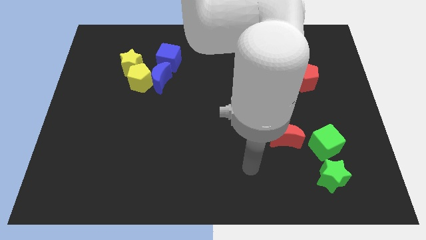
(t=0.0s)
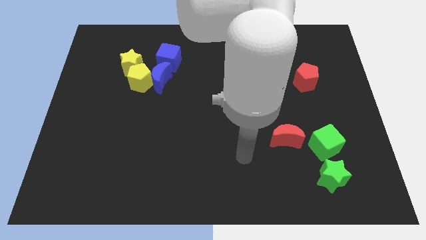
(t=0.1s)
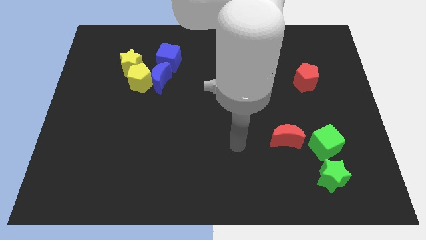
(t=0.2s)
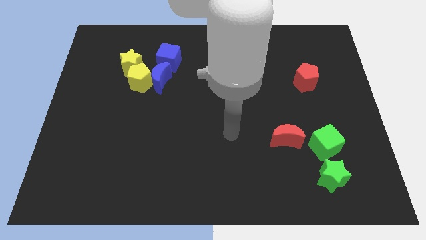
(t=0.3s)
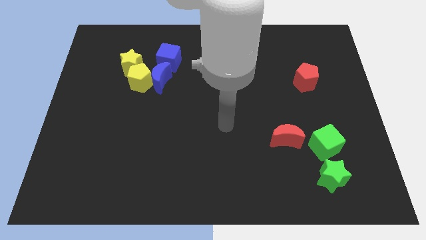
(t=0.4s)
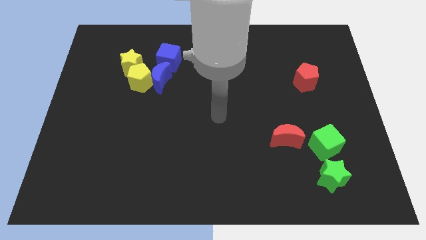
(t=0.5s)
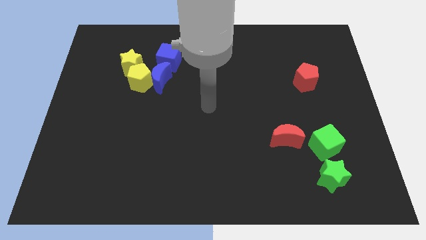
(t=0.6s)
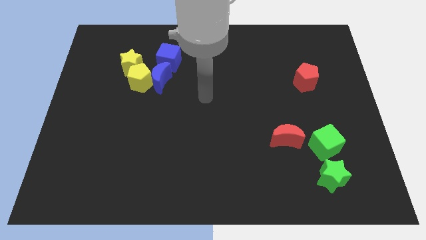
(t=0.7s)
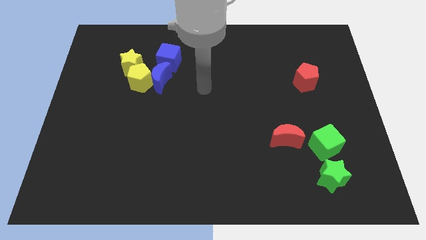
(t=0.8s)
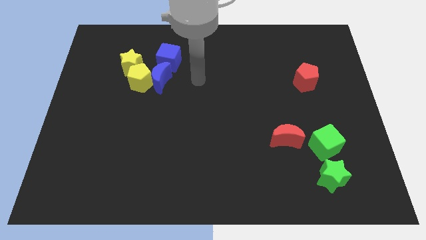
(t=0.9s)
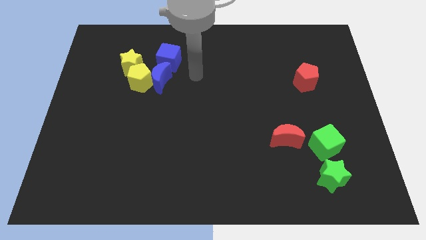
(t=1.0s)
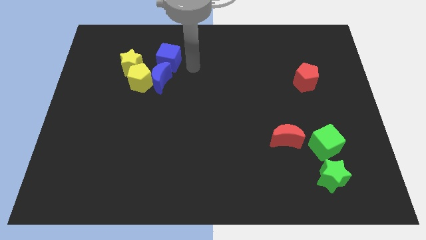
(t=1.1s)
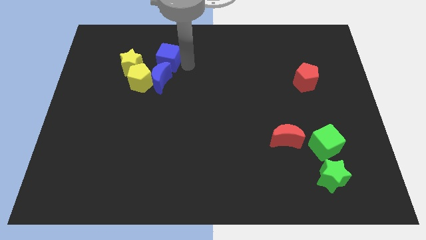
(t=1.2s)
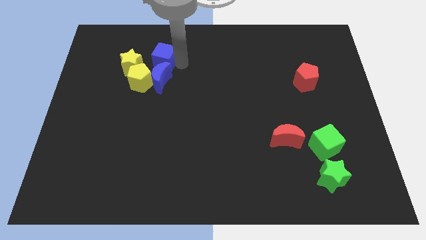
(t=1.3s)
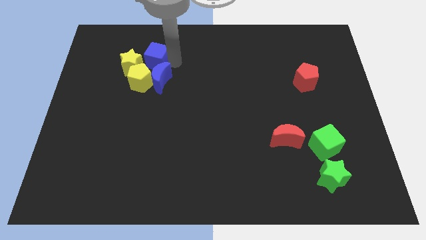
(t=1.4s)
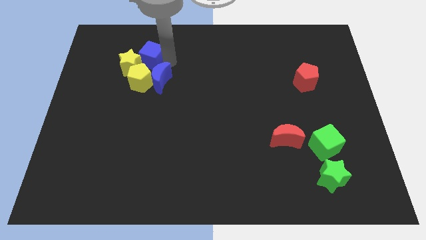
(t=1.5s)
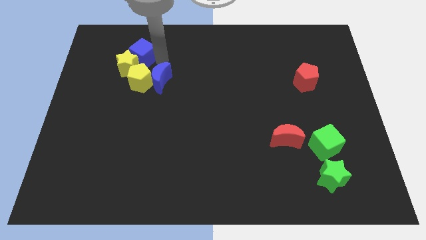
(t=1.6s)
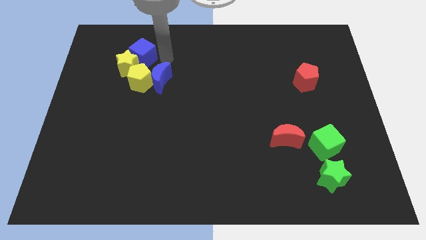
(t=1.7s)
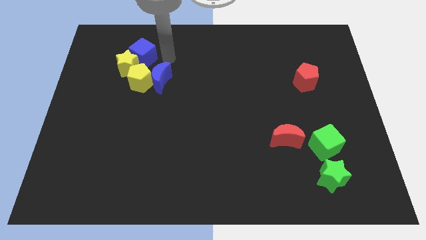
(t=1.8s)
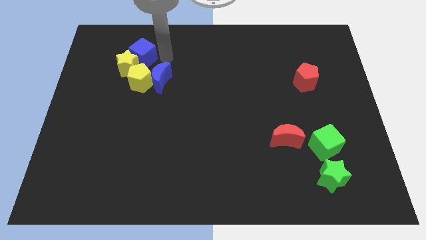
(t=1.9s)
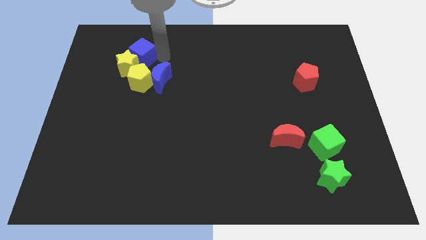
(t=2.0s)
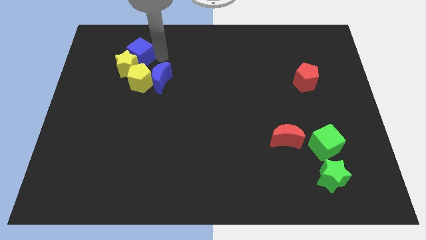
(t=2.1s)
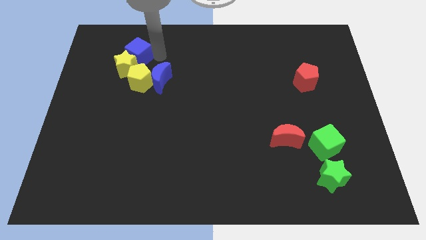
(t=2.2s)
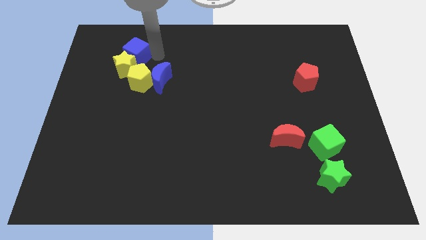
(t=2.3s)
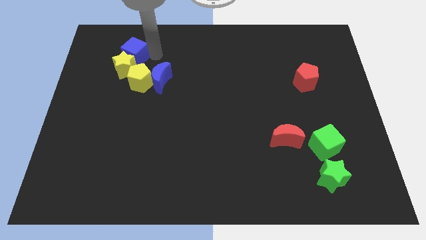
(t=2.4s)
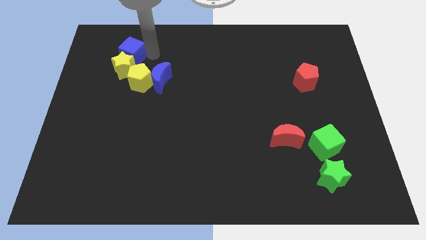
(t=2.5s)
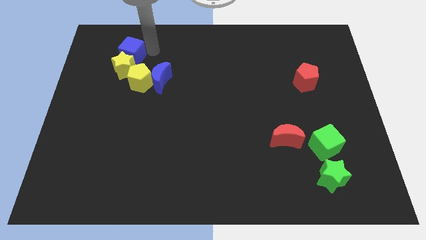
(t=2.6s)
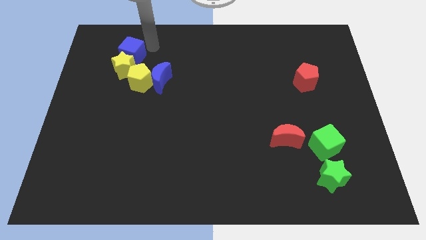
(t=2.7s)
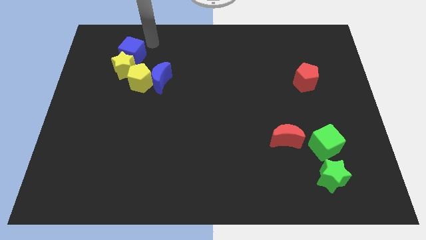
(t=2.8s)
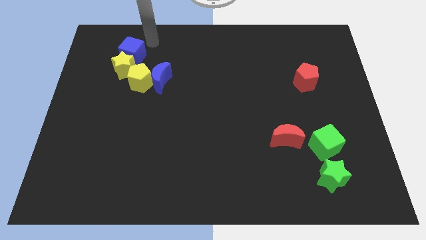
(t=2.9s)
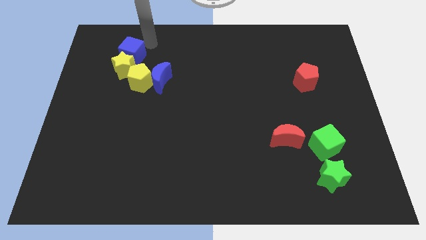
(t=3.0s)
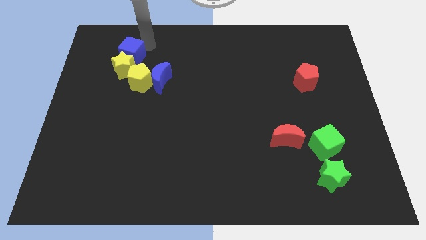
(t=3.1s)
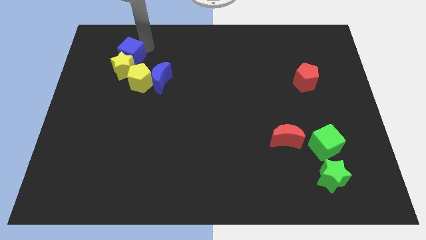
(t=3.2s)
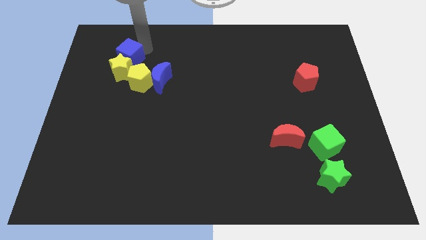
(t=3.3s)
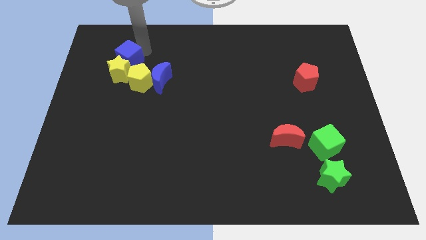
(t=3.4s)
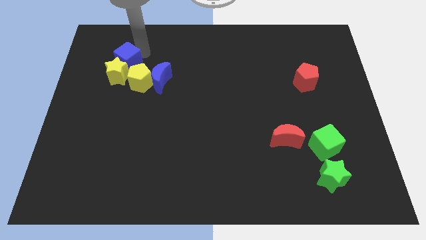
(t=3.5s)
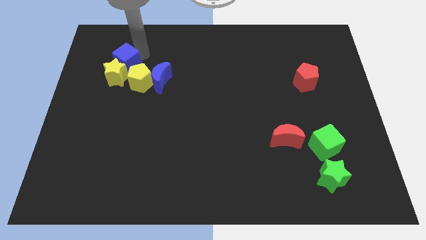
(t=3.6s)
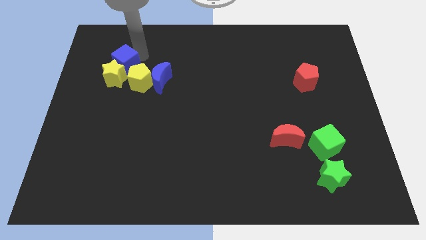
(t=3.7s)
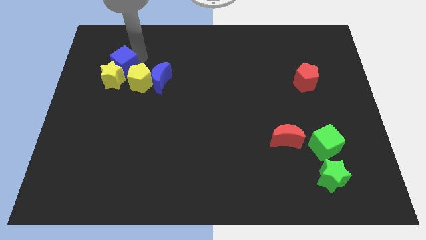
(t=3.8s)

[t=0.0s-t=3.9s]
slide the blue cube a little bit down and to the left diagonally

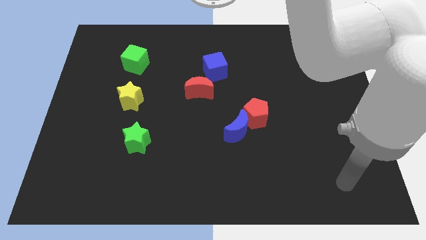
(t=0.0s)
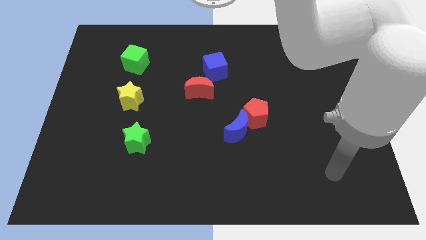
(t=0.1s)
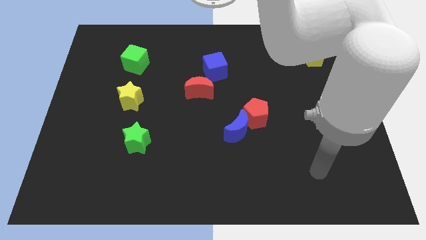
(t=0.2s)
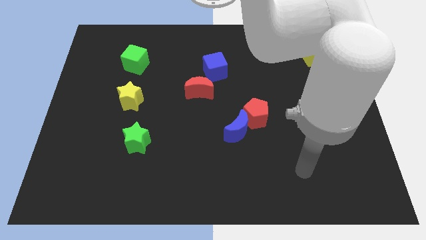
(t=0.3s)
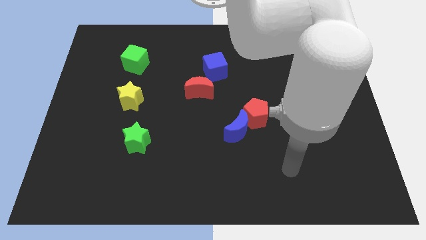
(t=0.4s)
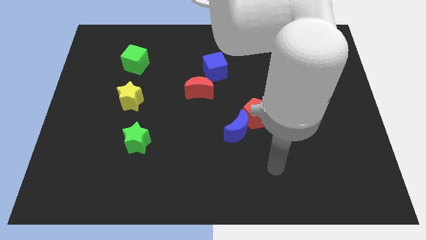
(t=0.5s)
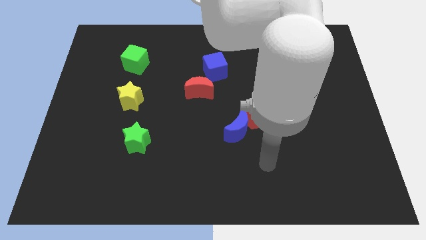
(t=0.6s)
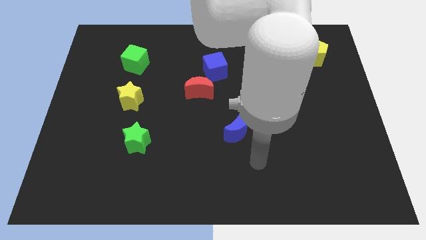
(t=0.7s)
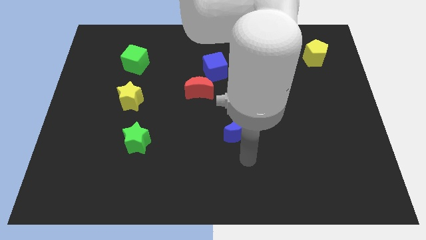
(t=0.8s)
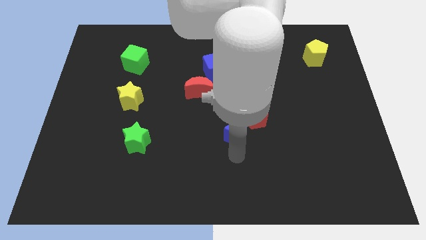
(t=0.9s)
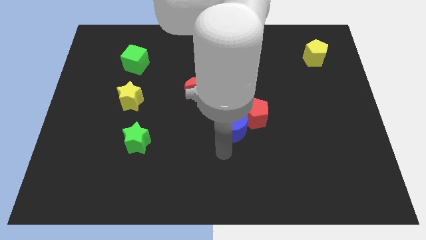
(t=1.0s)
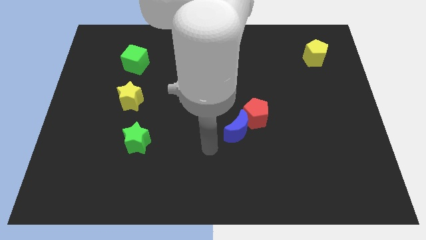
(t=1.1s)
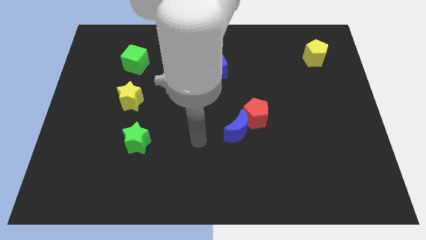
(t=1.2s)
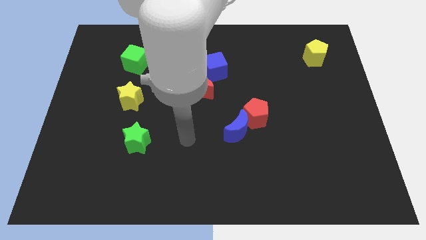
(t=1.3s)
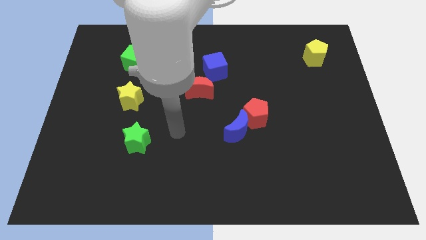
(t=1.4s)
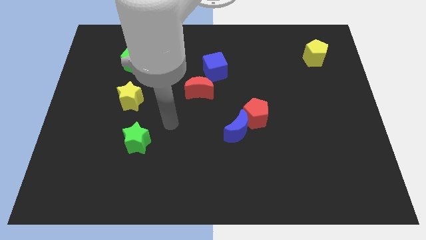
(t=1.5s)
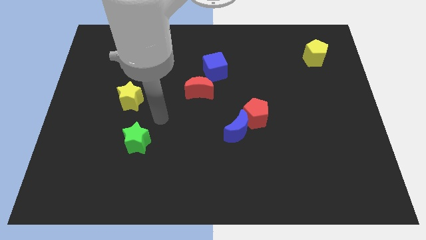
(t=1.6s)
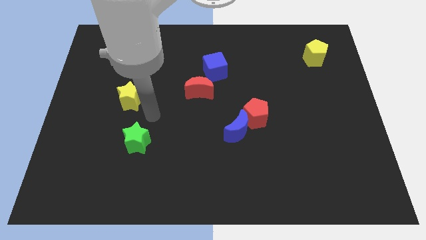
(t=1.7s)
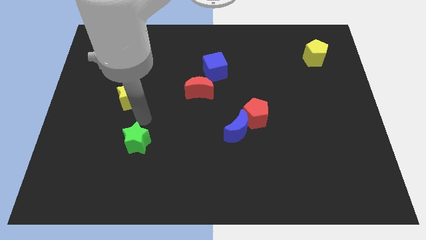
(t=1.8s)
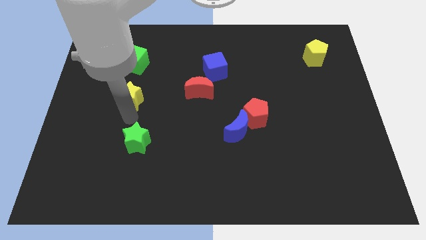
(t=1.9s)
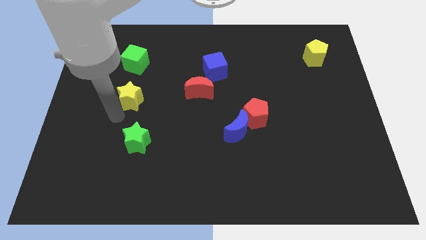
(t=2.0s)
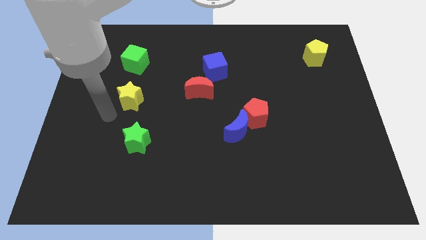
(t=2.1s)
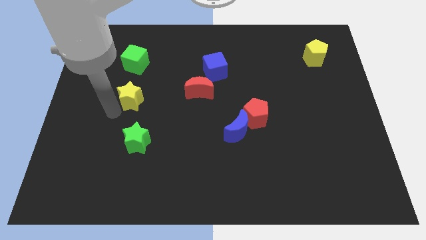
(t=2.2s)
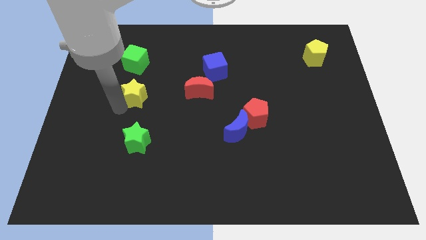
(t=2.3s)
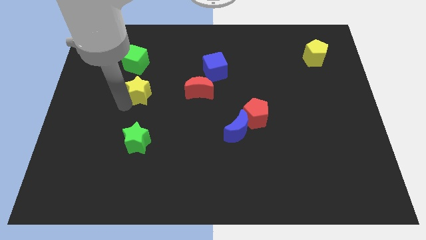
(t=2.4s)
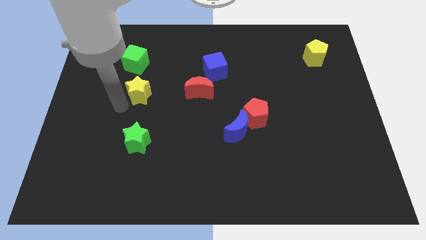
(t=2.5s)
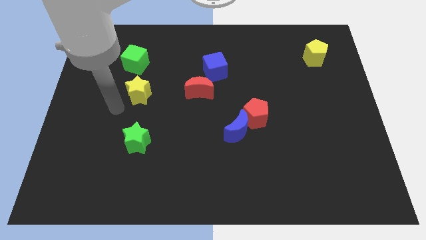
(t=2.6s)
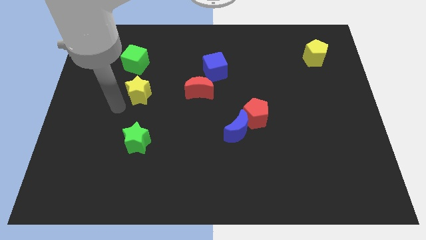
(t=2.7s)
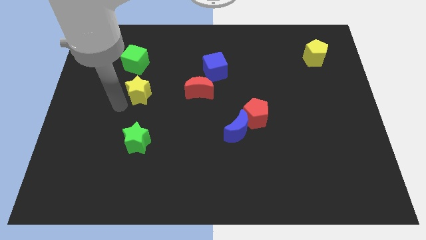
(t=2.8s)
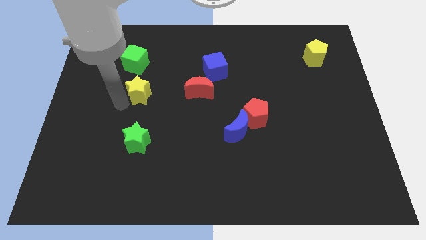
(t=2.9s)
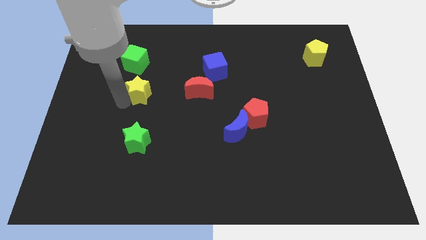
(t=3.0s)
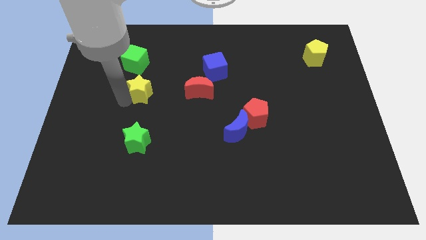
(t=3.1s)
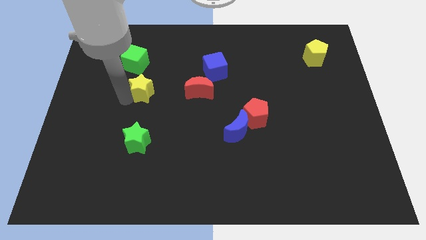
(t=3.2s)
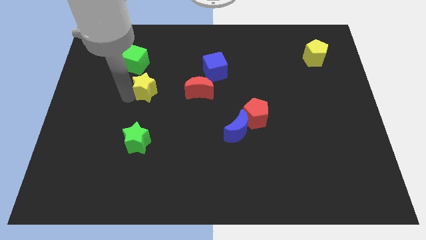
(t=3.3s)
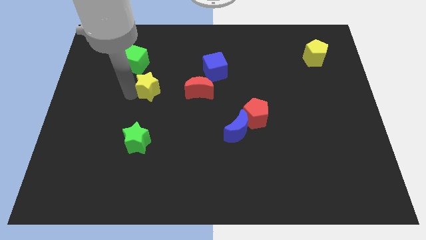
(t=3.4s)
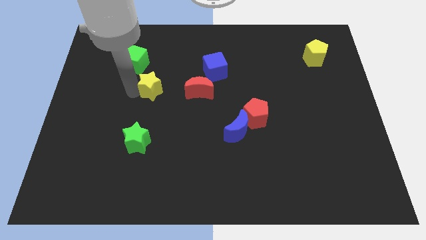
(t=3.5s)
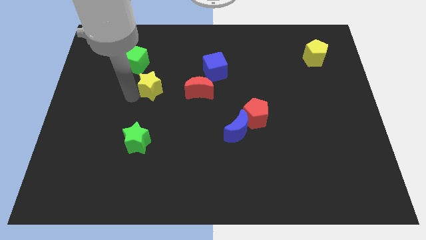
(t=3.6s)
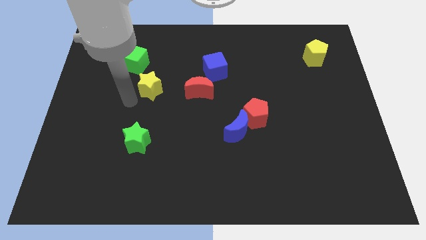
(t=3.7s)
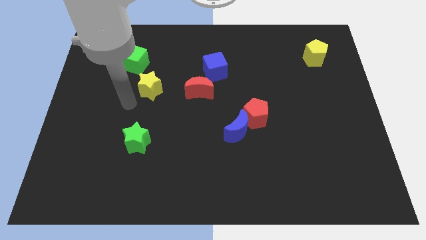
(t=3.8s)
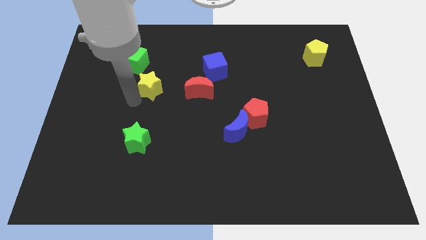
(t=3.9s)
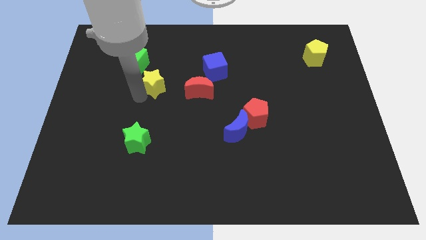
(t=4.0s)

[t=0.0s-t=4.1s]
slide the yellow star slightly upwards and then right
